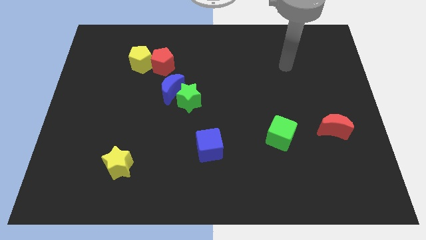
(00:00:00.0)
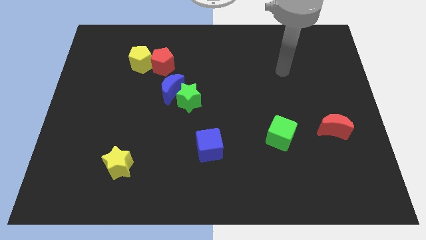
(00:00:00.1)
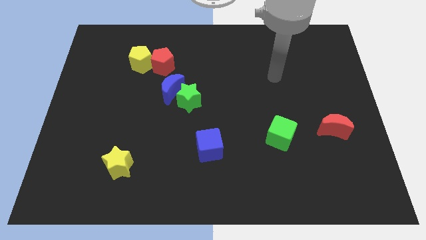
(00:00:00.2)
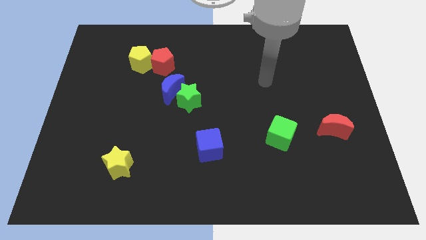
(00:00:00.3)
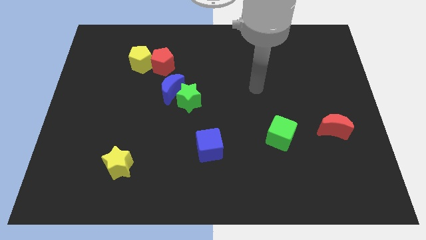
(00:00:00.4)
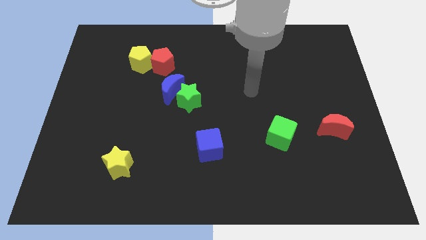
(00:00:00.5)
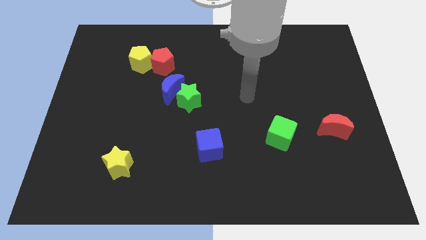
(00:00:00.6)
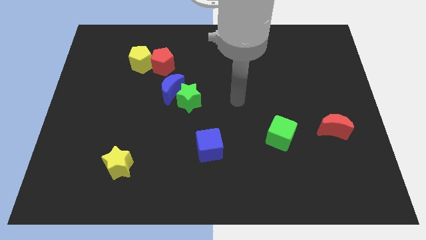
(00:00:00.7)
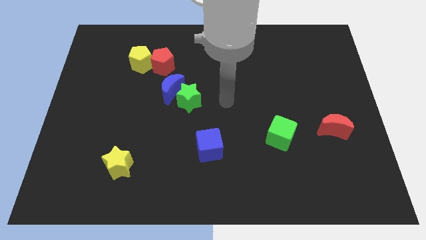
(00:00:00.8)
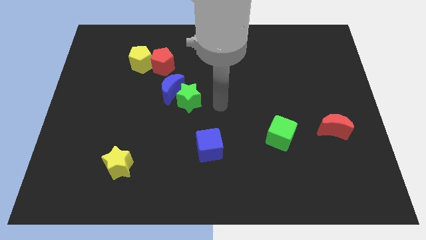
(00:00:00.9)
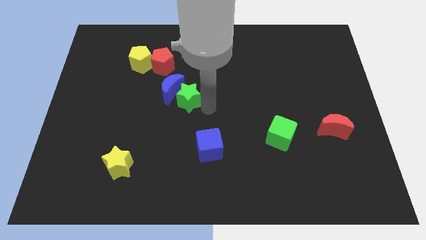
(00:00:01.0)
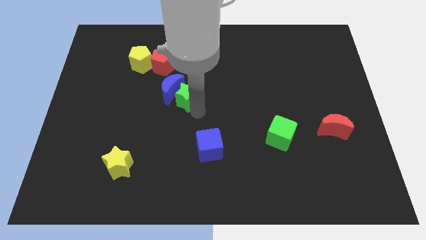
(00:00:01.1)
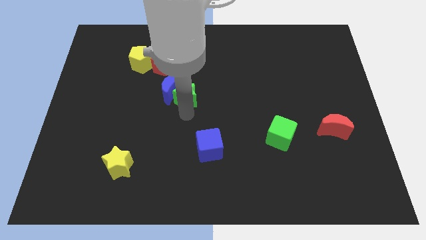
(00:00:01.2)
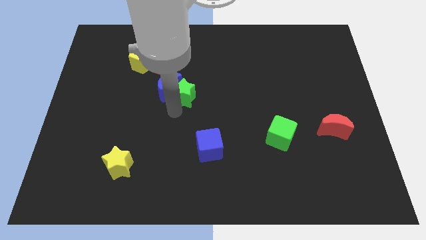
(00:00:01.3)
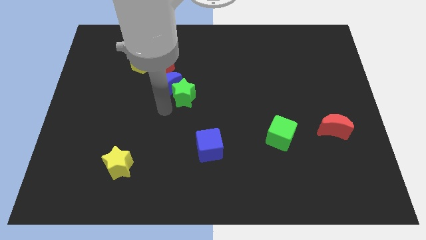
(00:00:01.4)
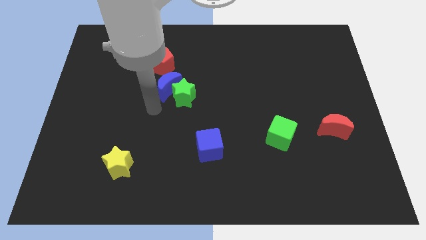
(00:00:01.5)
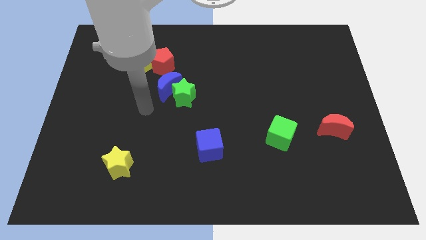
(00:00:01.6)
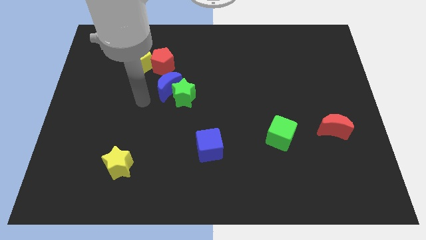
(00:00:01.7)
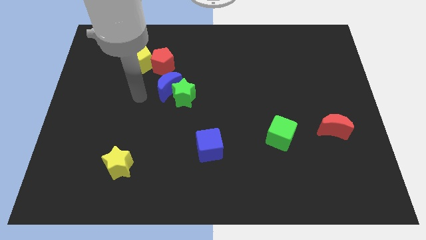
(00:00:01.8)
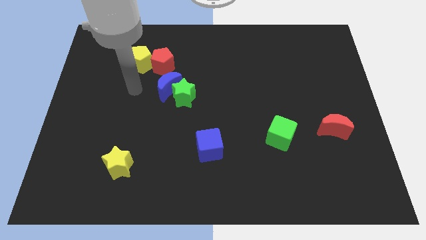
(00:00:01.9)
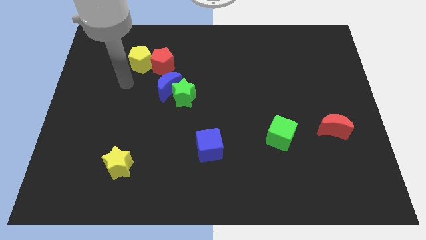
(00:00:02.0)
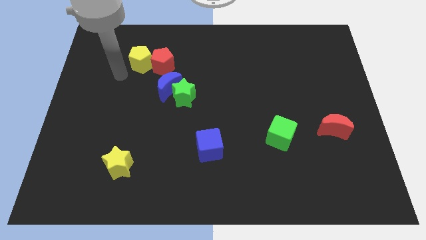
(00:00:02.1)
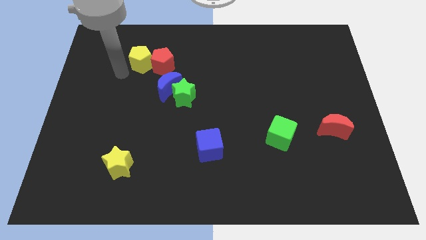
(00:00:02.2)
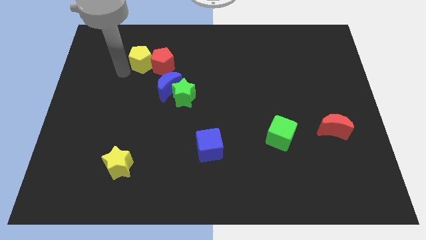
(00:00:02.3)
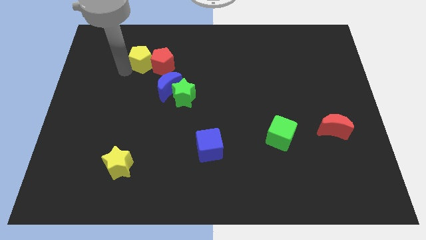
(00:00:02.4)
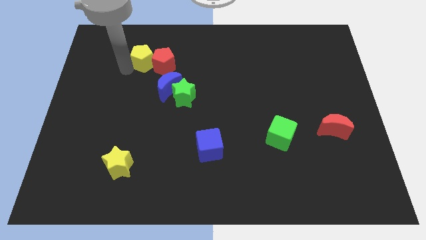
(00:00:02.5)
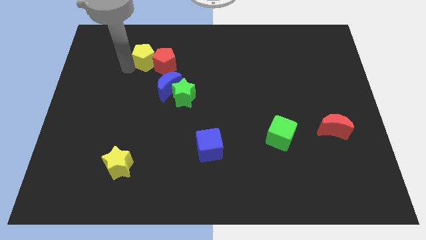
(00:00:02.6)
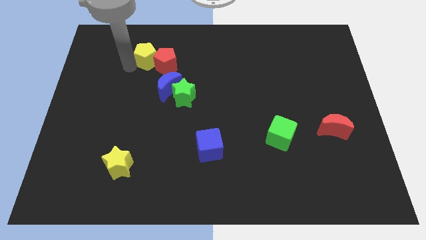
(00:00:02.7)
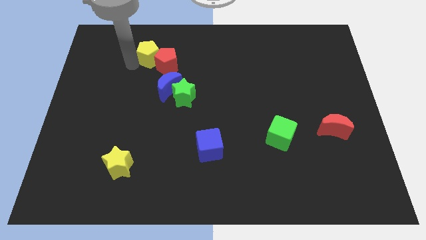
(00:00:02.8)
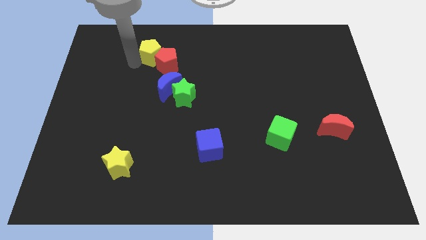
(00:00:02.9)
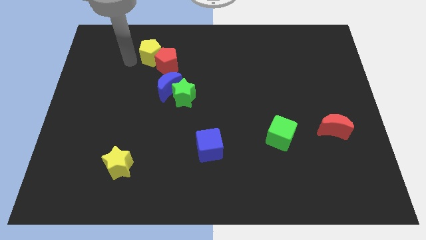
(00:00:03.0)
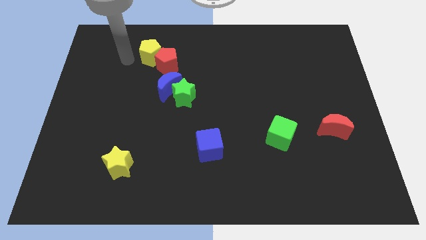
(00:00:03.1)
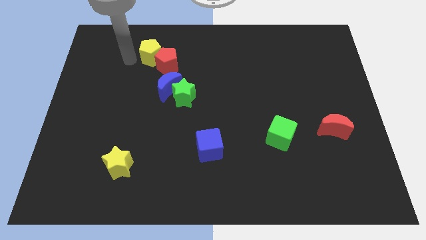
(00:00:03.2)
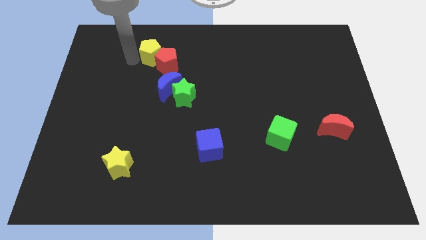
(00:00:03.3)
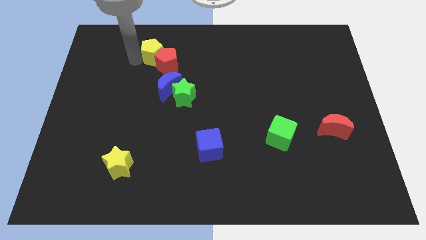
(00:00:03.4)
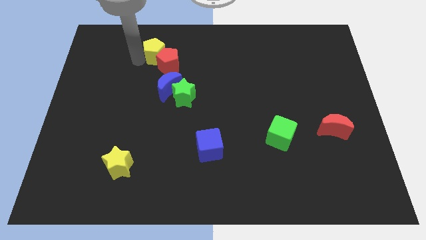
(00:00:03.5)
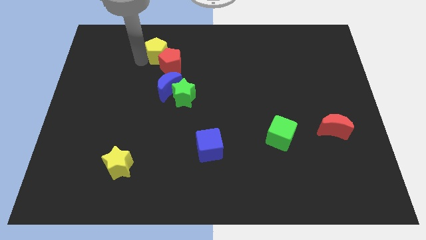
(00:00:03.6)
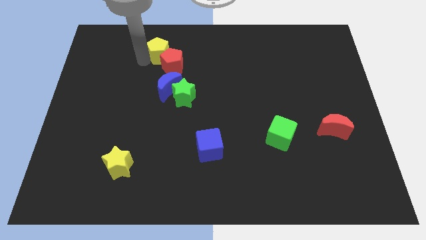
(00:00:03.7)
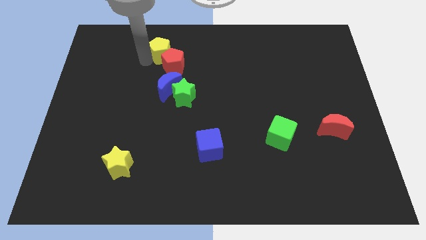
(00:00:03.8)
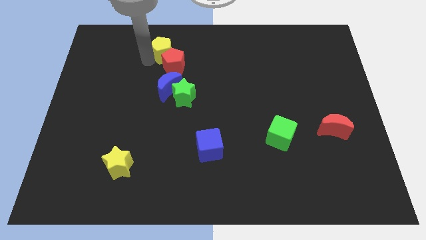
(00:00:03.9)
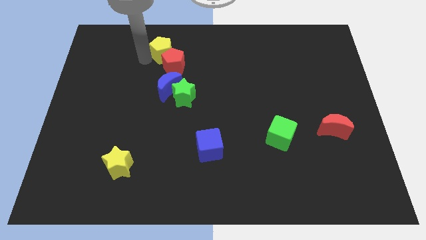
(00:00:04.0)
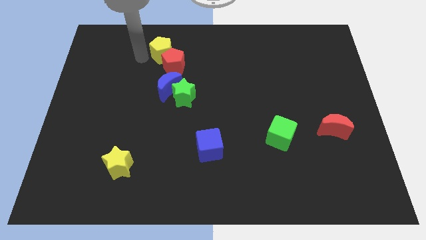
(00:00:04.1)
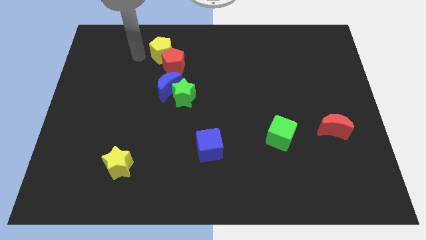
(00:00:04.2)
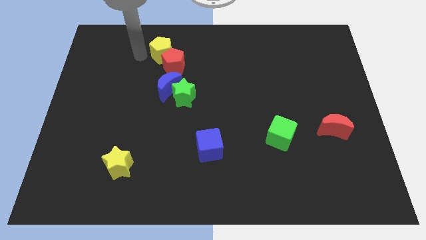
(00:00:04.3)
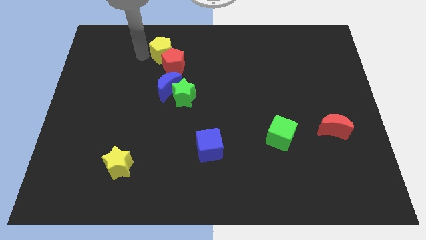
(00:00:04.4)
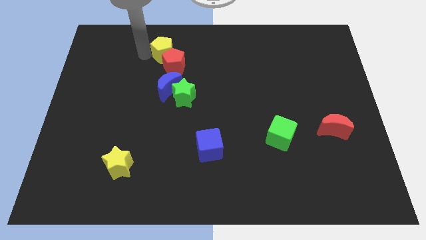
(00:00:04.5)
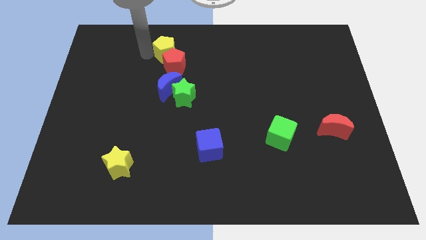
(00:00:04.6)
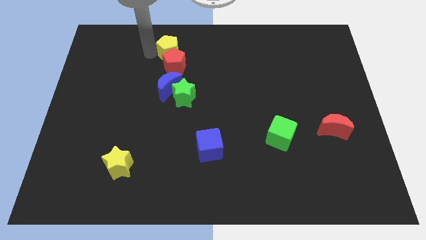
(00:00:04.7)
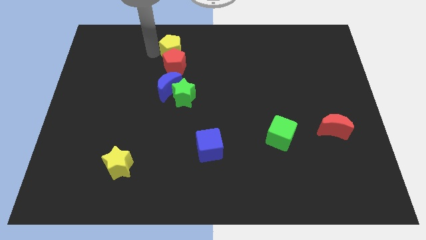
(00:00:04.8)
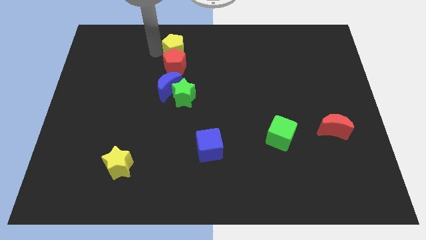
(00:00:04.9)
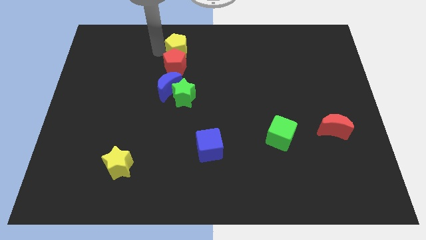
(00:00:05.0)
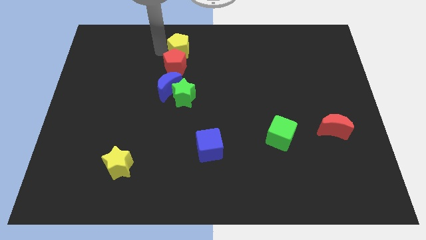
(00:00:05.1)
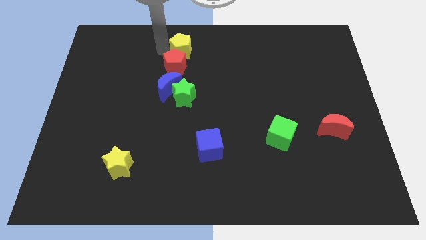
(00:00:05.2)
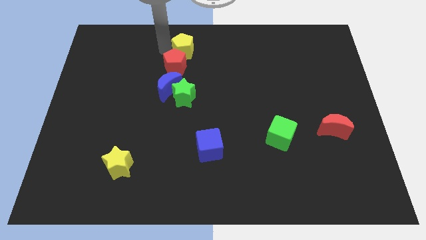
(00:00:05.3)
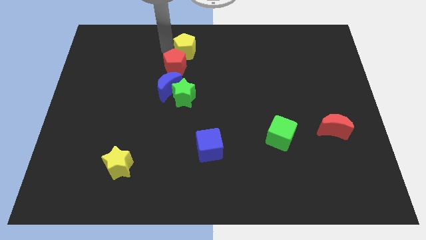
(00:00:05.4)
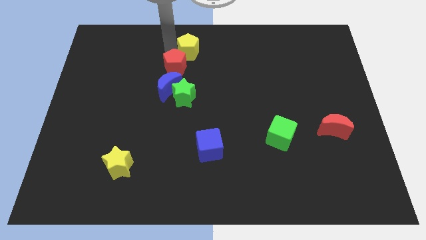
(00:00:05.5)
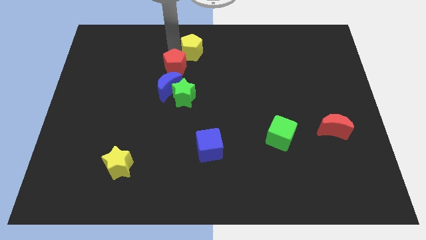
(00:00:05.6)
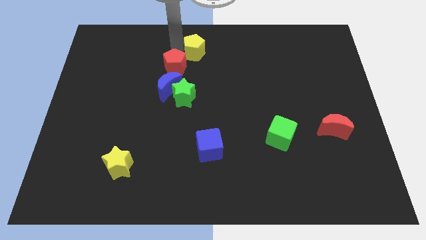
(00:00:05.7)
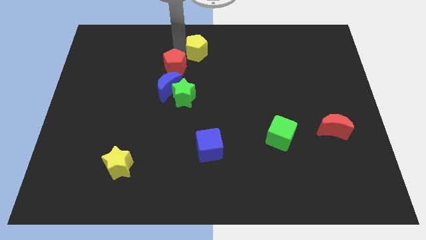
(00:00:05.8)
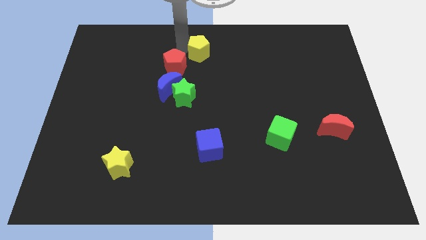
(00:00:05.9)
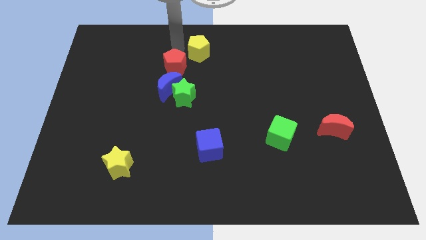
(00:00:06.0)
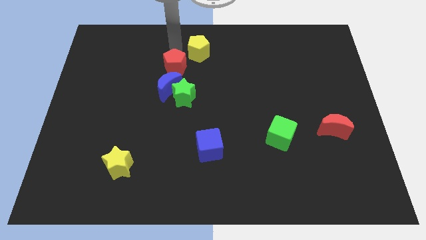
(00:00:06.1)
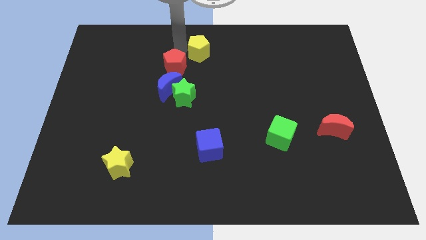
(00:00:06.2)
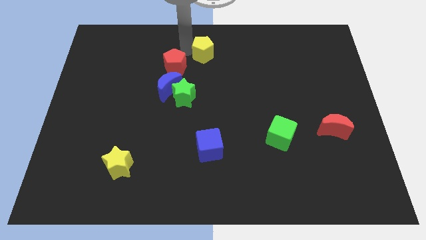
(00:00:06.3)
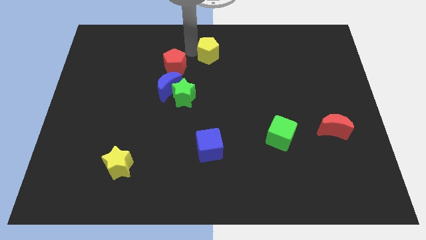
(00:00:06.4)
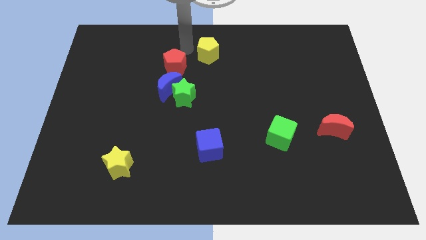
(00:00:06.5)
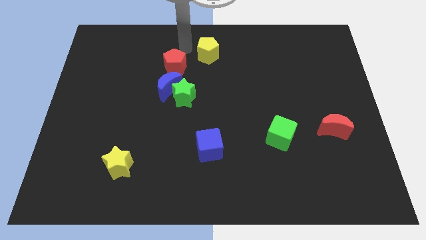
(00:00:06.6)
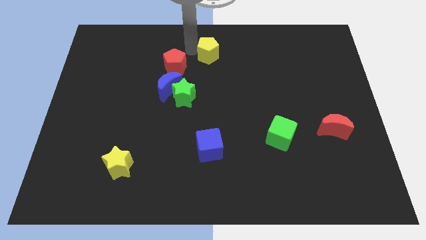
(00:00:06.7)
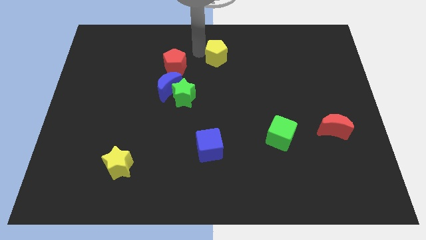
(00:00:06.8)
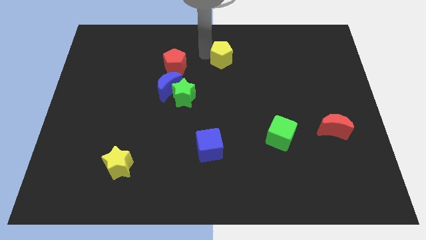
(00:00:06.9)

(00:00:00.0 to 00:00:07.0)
push the yellow pentagon to the right

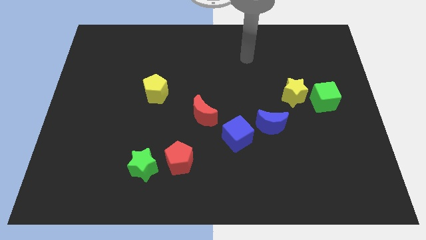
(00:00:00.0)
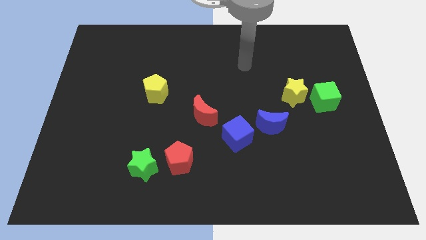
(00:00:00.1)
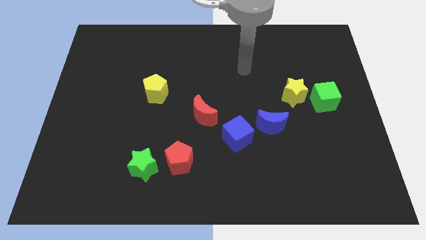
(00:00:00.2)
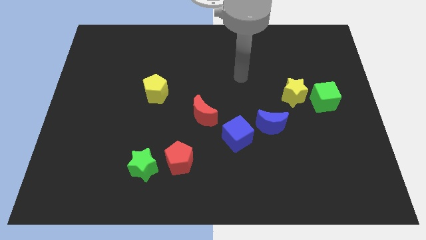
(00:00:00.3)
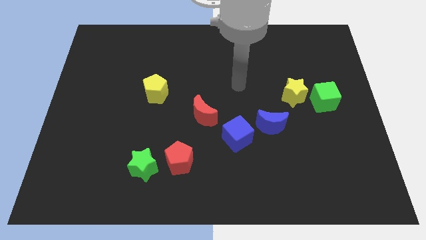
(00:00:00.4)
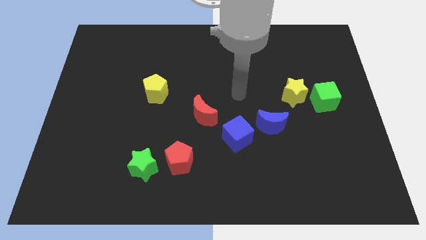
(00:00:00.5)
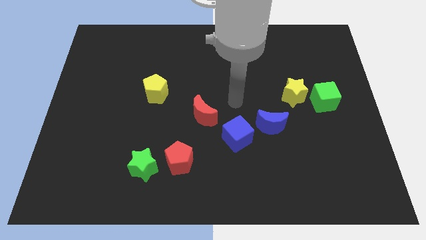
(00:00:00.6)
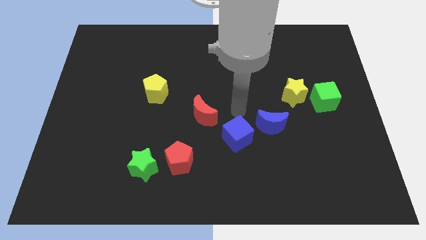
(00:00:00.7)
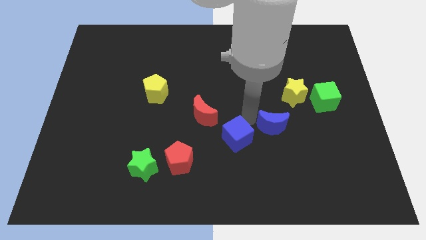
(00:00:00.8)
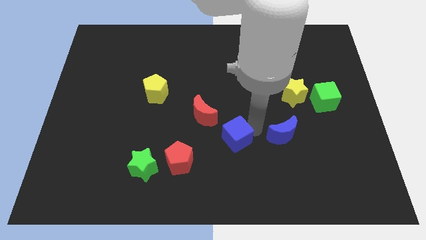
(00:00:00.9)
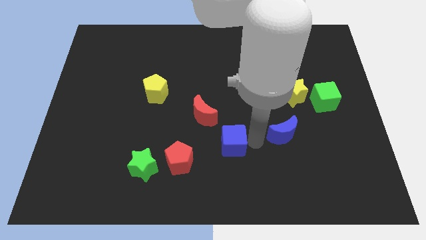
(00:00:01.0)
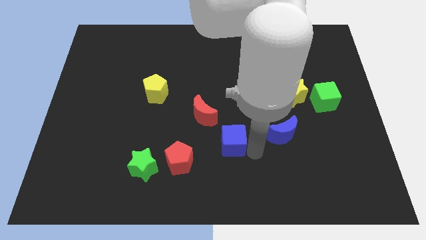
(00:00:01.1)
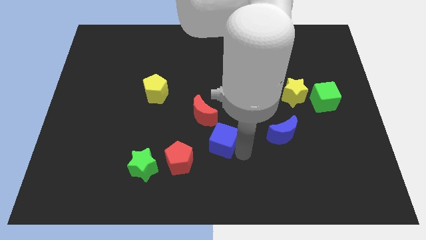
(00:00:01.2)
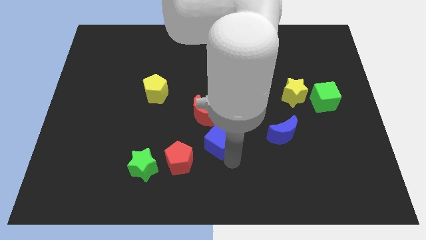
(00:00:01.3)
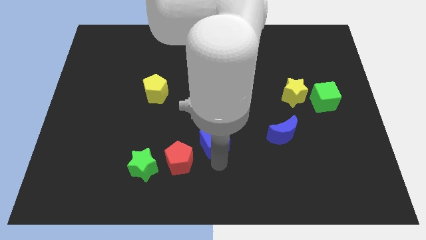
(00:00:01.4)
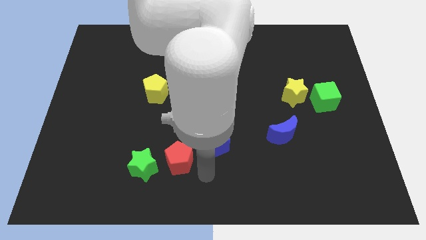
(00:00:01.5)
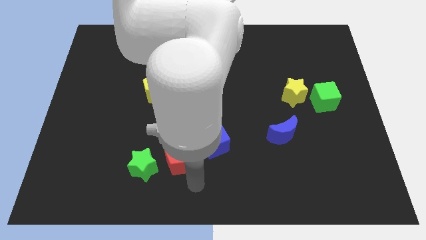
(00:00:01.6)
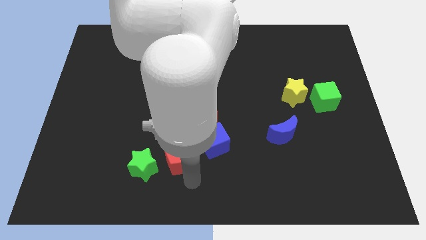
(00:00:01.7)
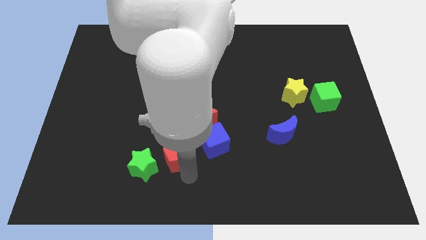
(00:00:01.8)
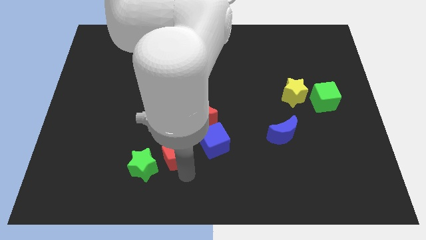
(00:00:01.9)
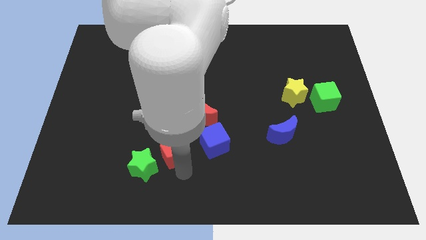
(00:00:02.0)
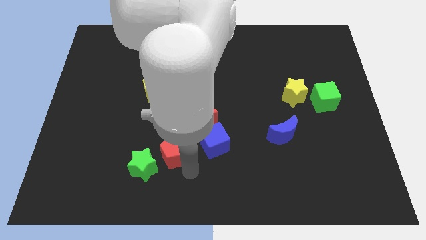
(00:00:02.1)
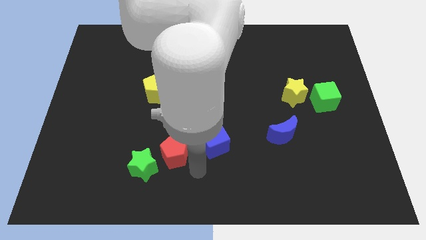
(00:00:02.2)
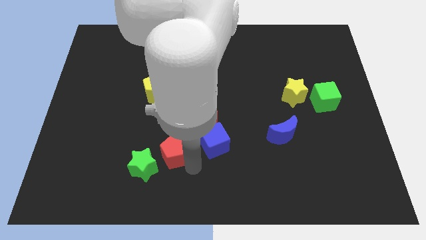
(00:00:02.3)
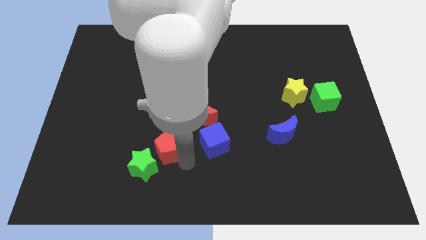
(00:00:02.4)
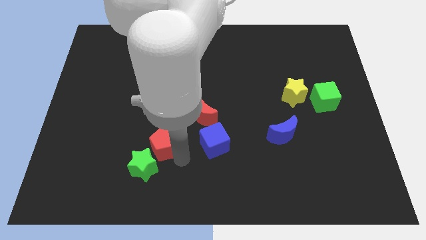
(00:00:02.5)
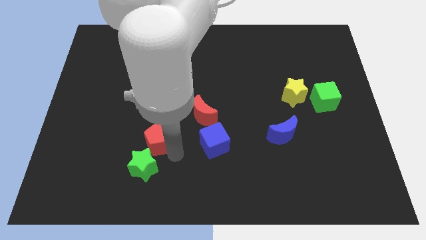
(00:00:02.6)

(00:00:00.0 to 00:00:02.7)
slide the red pentagon up and left diagonally a little bit
